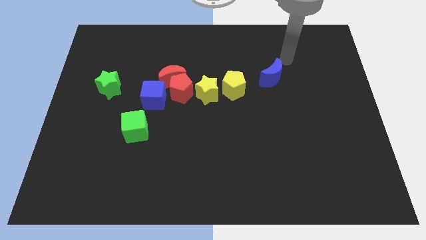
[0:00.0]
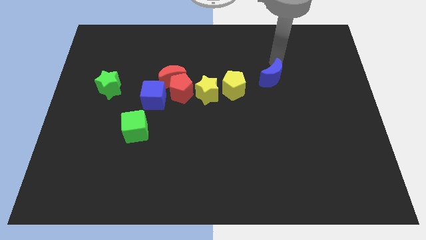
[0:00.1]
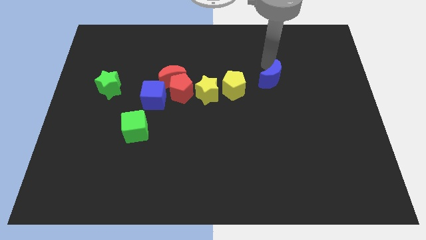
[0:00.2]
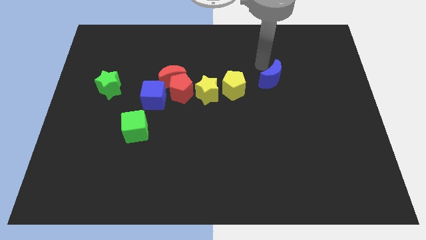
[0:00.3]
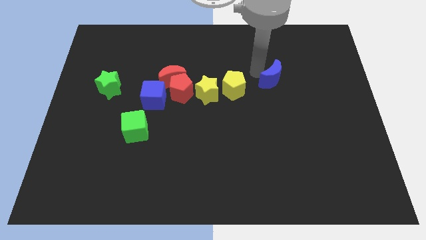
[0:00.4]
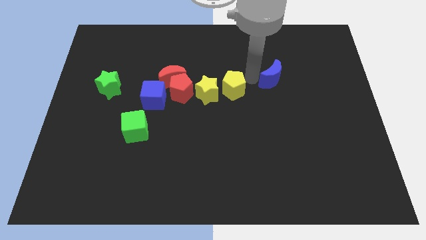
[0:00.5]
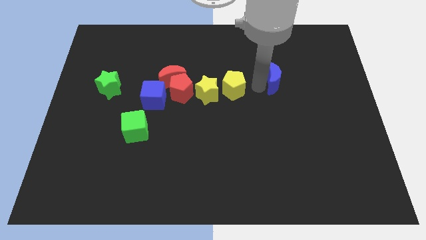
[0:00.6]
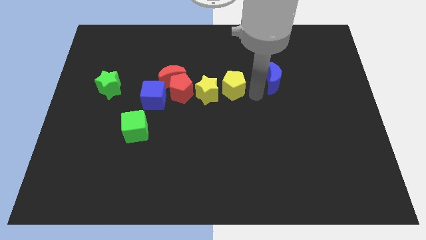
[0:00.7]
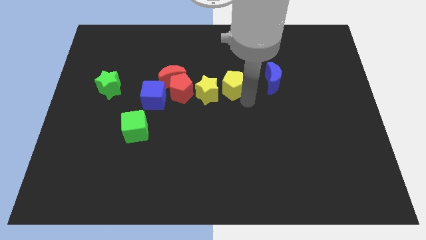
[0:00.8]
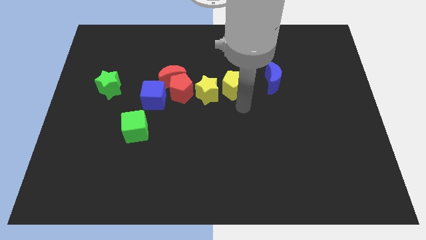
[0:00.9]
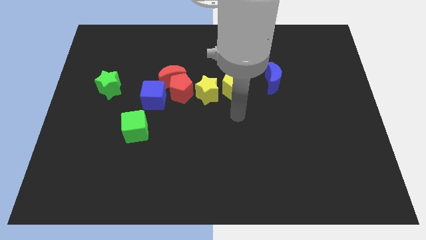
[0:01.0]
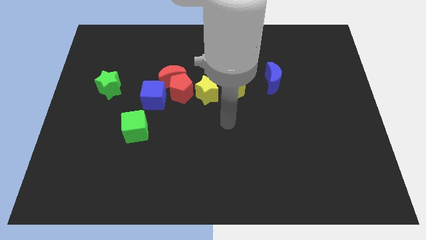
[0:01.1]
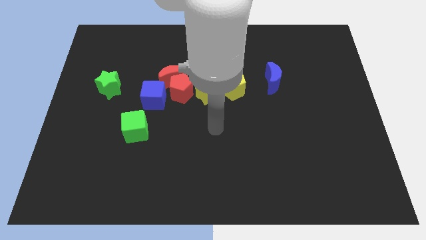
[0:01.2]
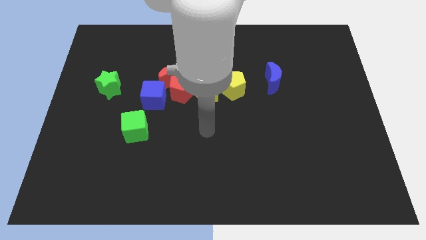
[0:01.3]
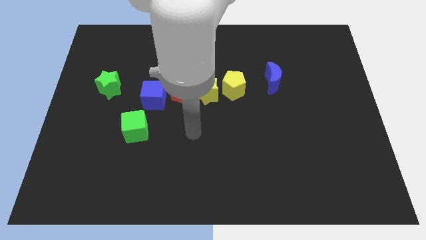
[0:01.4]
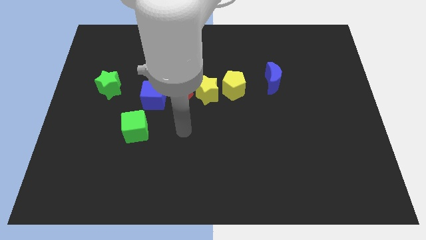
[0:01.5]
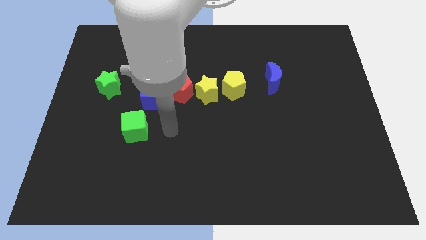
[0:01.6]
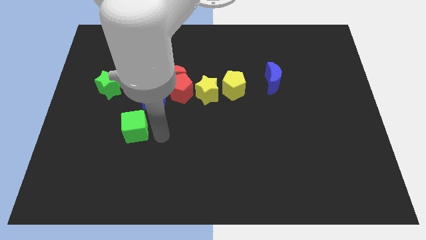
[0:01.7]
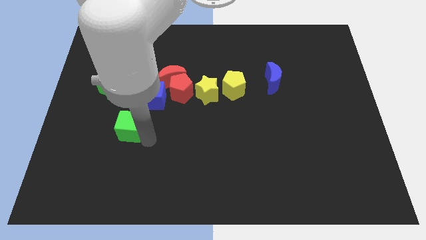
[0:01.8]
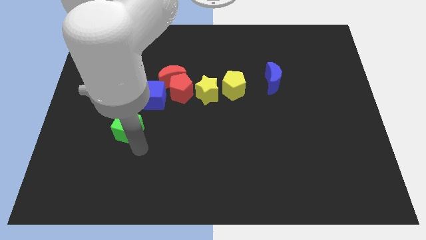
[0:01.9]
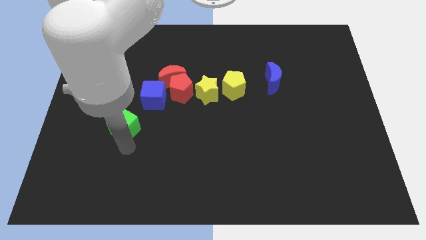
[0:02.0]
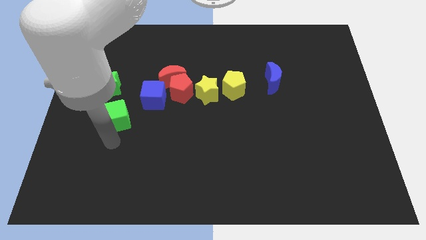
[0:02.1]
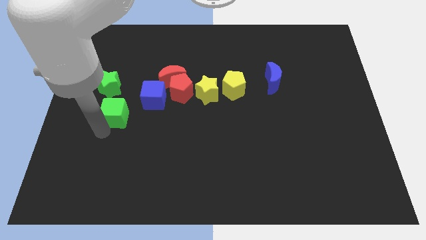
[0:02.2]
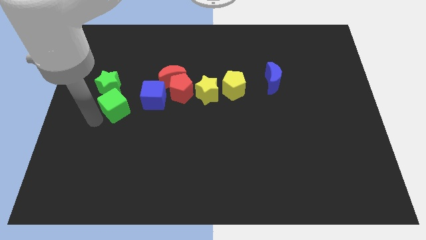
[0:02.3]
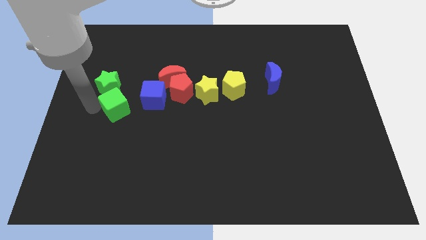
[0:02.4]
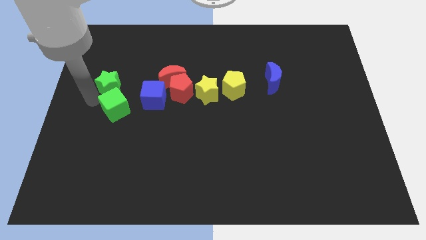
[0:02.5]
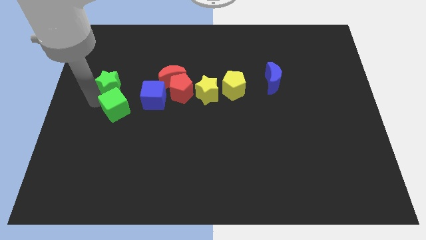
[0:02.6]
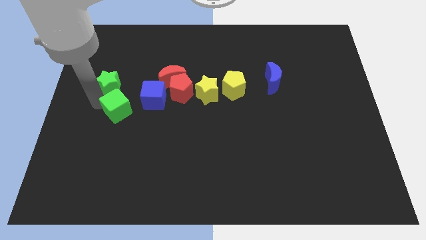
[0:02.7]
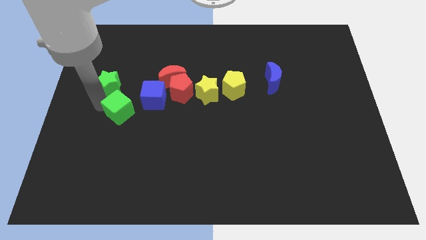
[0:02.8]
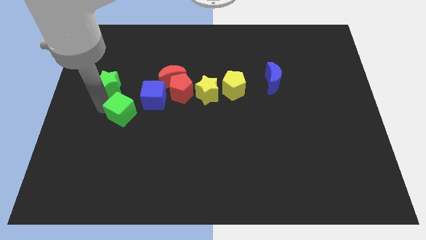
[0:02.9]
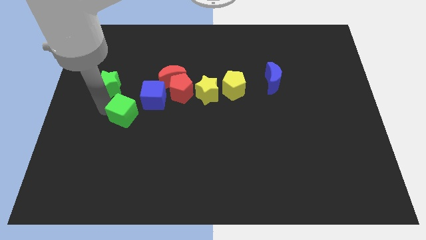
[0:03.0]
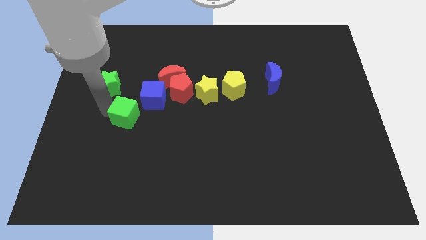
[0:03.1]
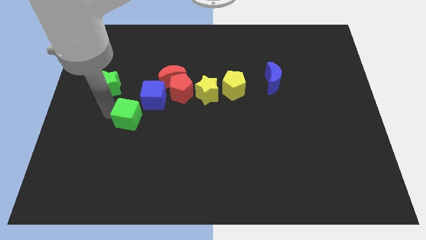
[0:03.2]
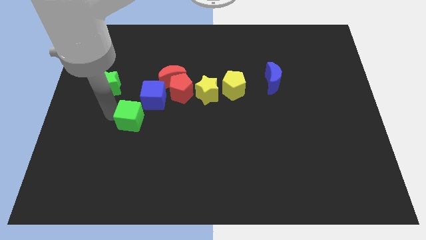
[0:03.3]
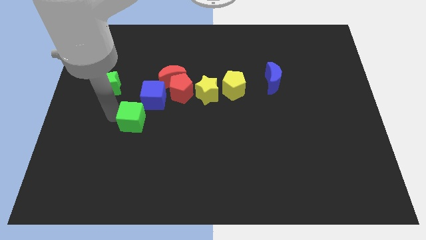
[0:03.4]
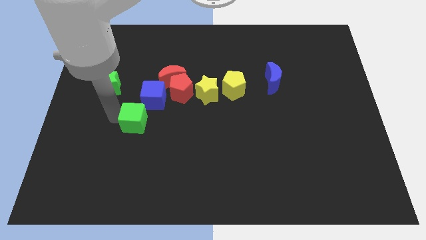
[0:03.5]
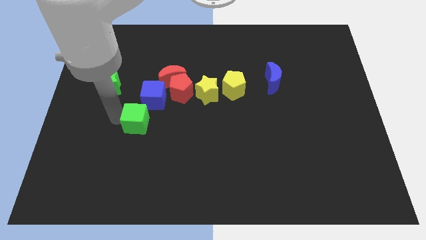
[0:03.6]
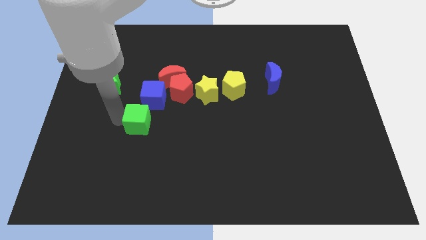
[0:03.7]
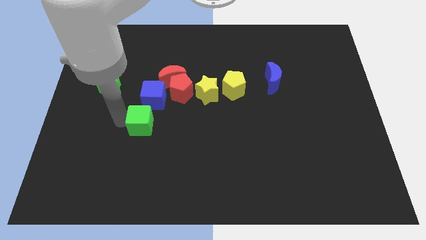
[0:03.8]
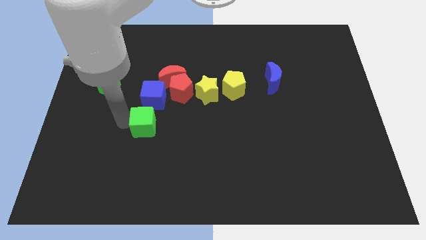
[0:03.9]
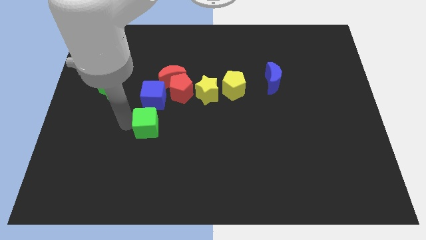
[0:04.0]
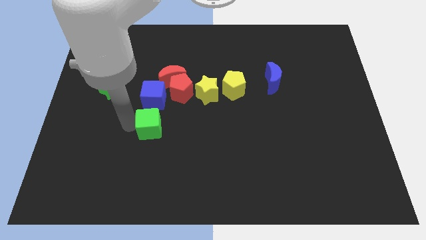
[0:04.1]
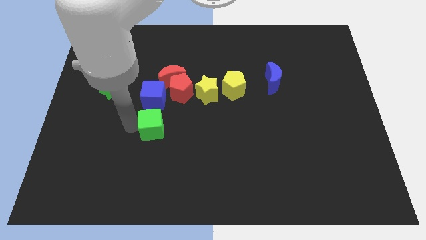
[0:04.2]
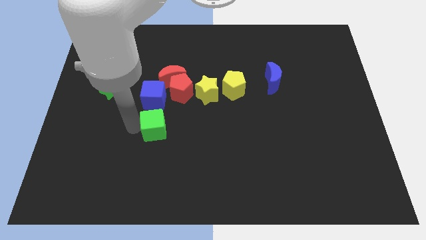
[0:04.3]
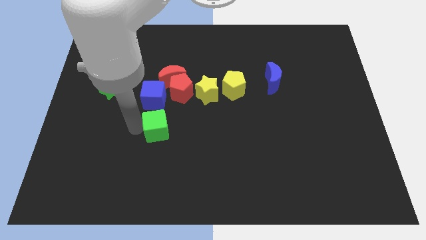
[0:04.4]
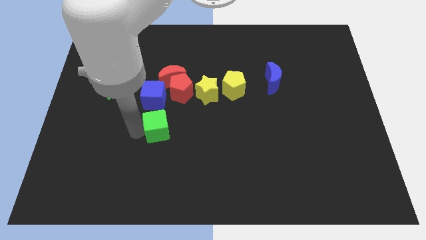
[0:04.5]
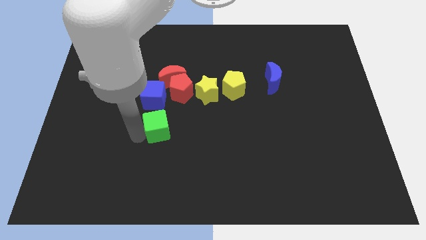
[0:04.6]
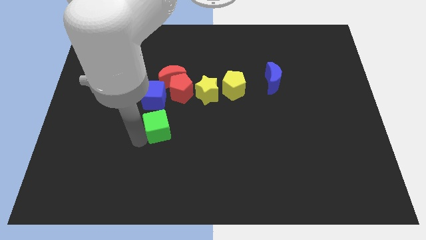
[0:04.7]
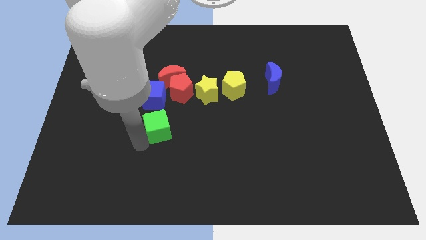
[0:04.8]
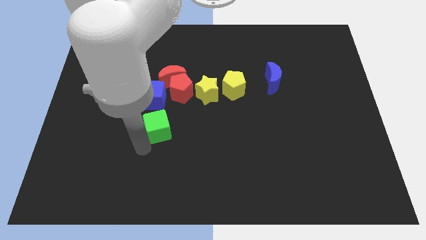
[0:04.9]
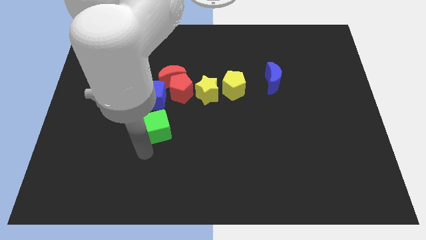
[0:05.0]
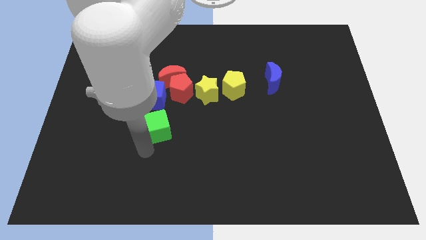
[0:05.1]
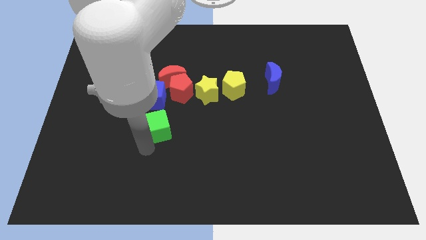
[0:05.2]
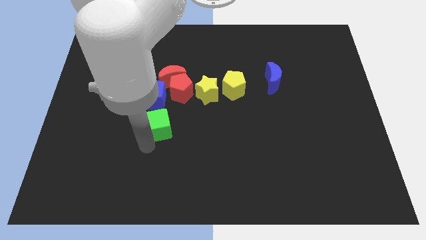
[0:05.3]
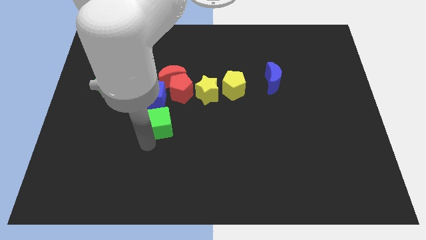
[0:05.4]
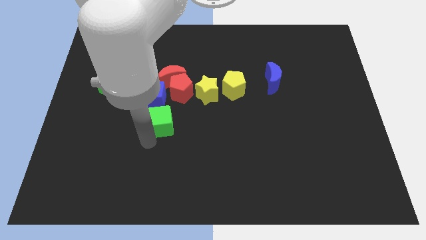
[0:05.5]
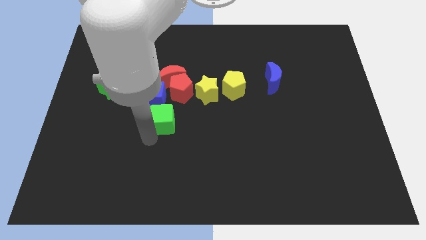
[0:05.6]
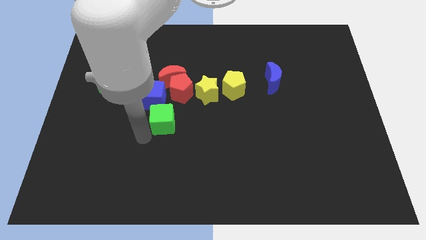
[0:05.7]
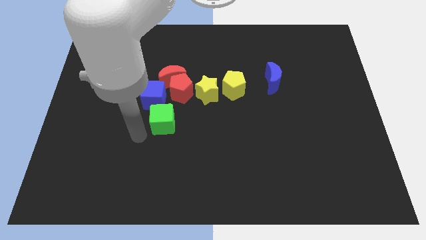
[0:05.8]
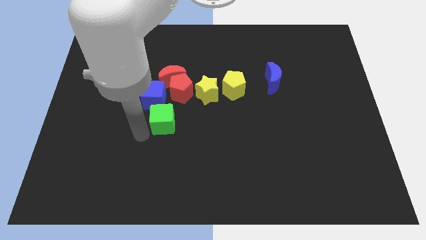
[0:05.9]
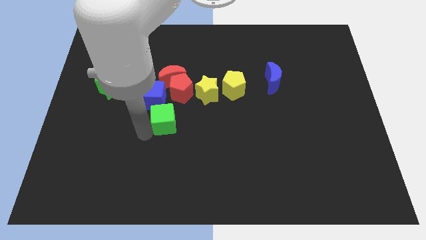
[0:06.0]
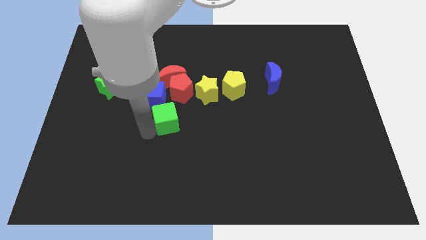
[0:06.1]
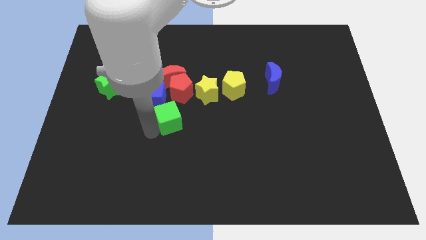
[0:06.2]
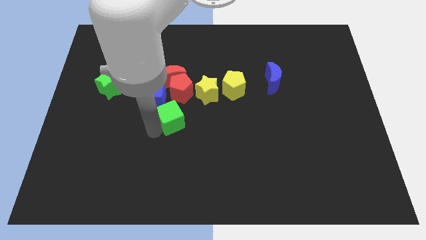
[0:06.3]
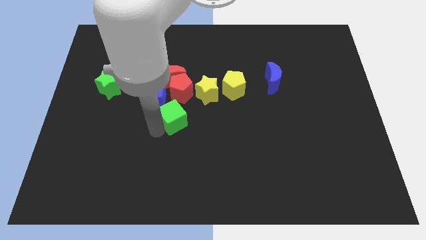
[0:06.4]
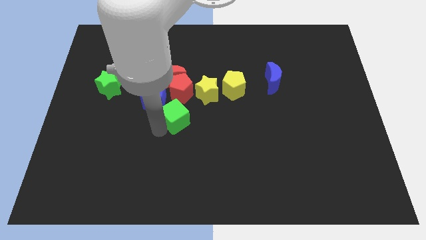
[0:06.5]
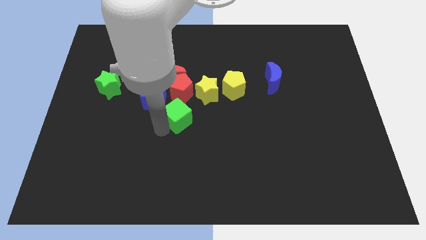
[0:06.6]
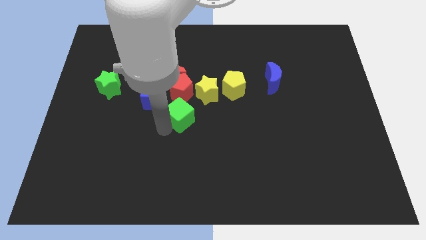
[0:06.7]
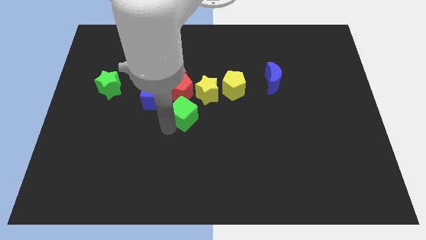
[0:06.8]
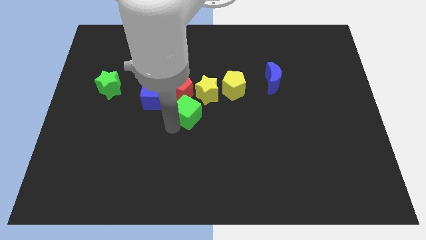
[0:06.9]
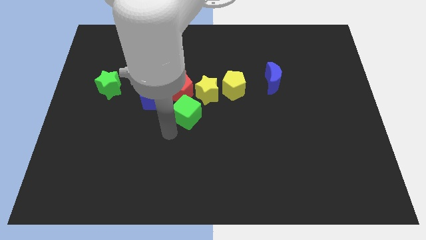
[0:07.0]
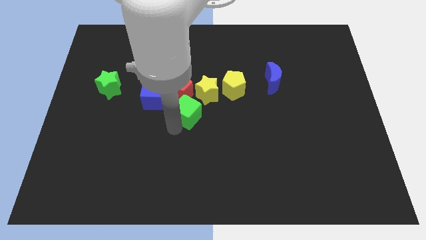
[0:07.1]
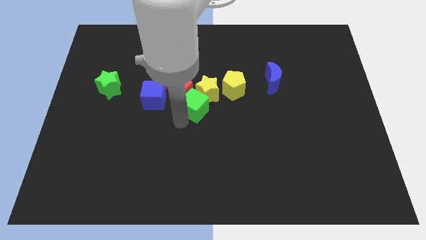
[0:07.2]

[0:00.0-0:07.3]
put the green cube towards the yellow star
